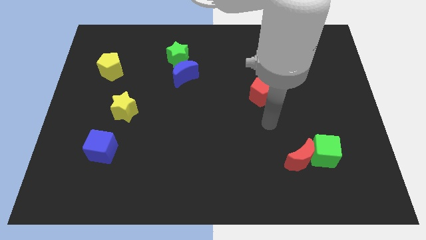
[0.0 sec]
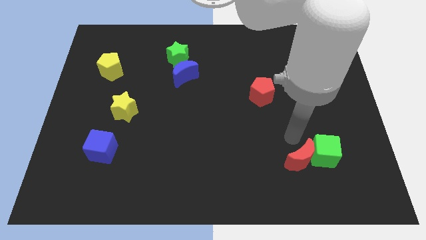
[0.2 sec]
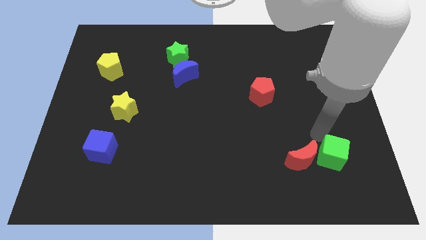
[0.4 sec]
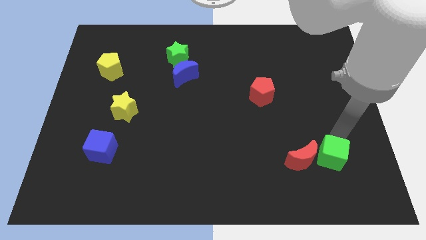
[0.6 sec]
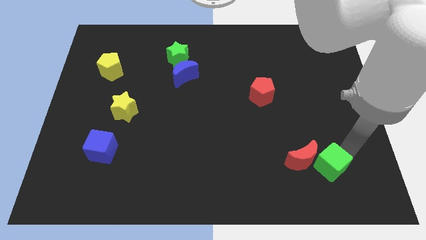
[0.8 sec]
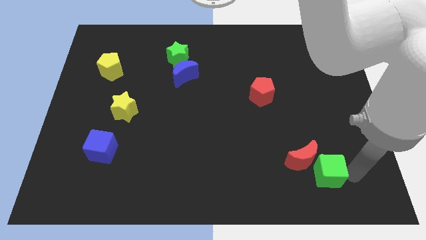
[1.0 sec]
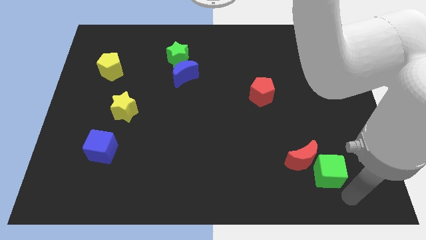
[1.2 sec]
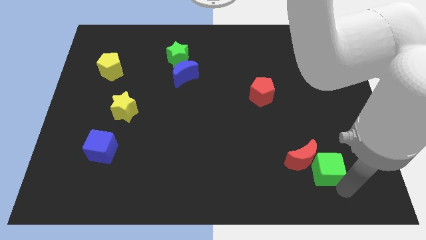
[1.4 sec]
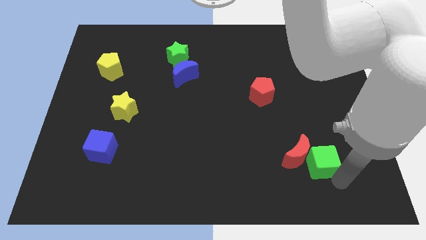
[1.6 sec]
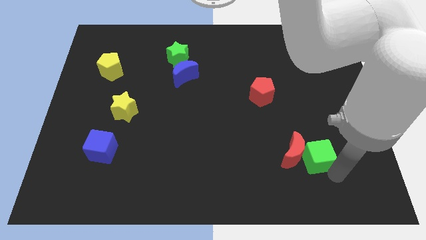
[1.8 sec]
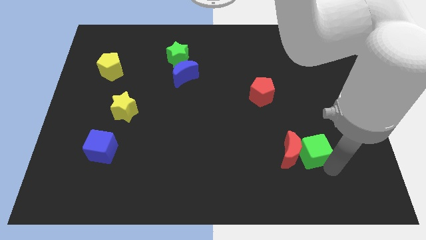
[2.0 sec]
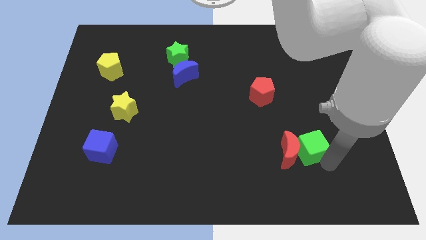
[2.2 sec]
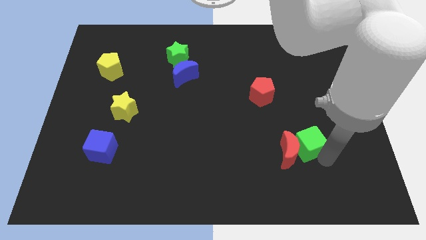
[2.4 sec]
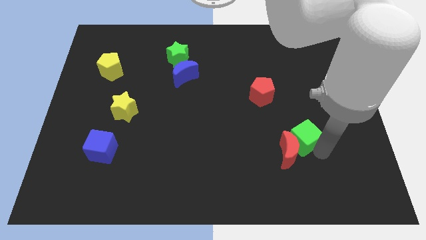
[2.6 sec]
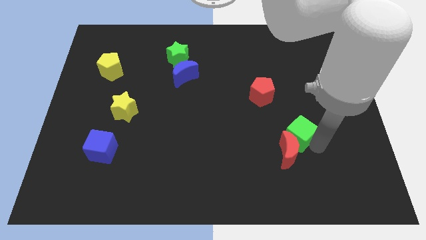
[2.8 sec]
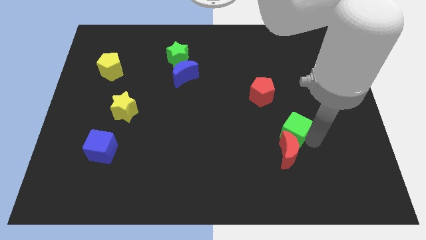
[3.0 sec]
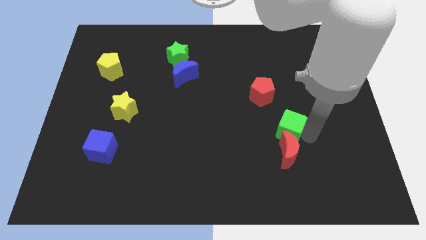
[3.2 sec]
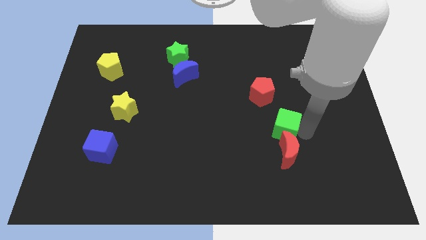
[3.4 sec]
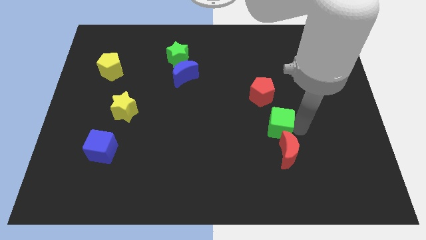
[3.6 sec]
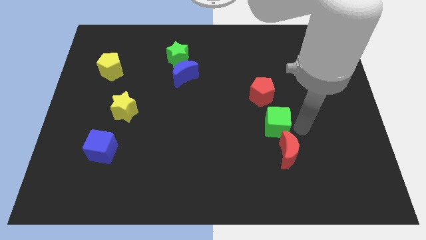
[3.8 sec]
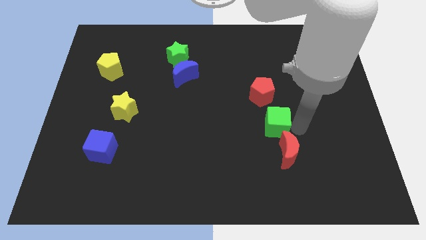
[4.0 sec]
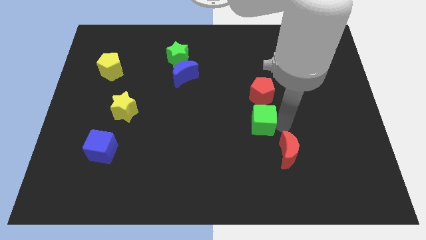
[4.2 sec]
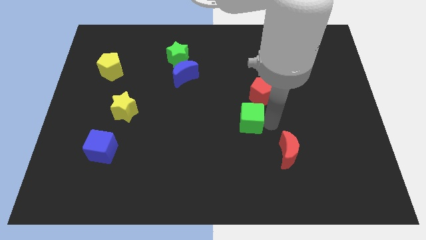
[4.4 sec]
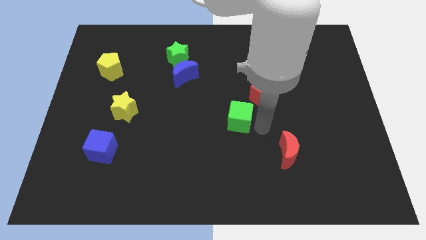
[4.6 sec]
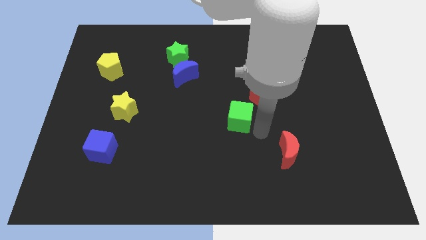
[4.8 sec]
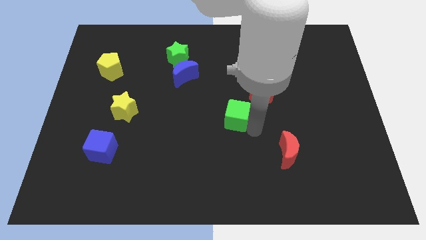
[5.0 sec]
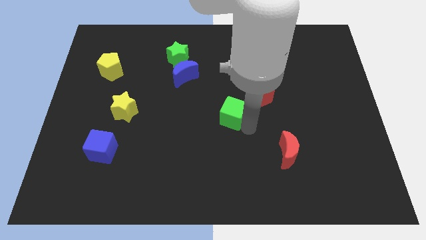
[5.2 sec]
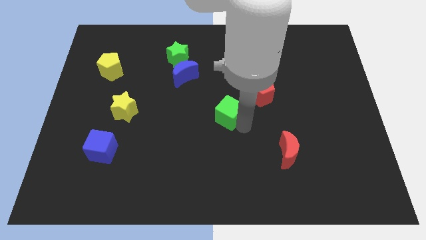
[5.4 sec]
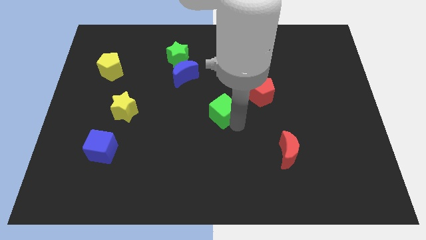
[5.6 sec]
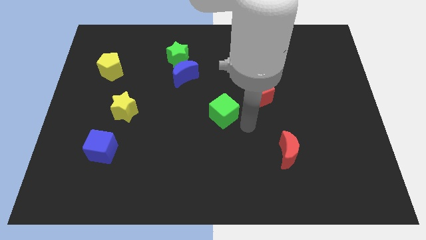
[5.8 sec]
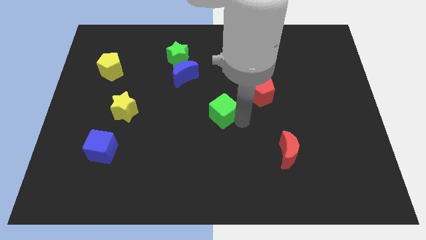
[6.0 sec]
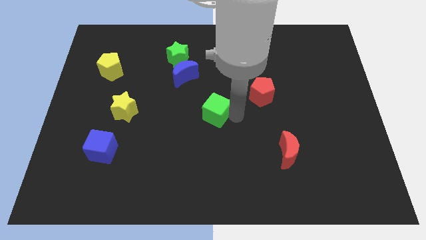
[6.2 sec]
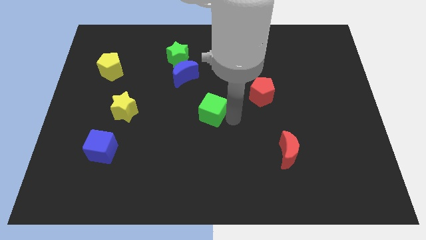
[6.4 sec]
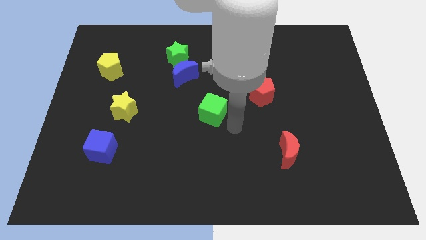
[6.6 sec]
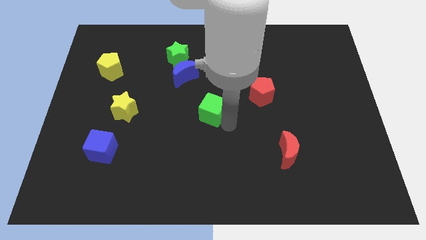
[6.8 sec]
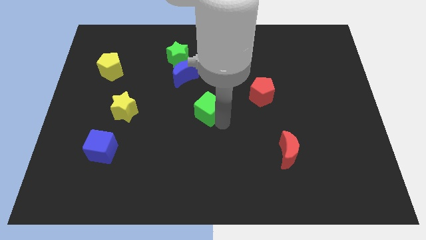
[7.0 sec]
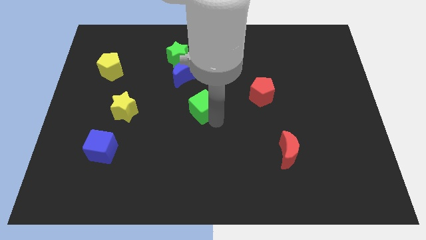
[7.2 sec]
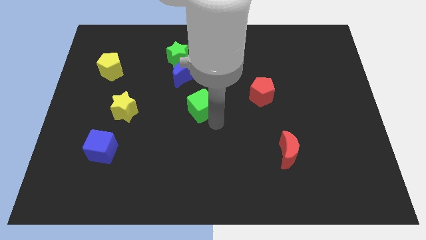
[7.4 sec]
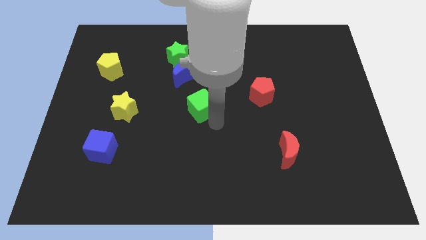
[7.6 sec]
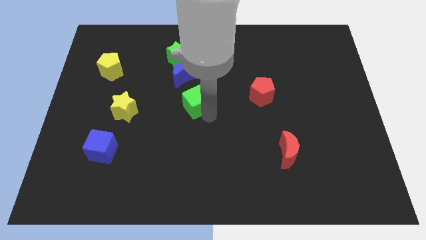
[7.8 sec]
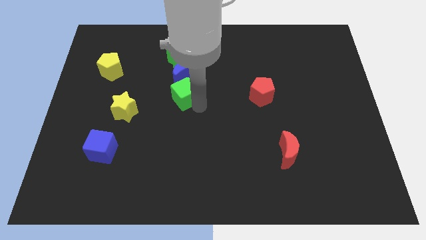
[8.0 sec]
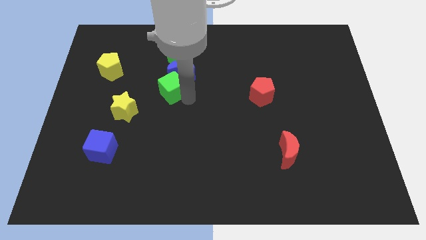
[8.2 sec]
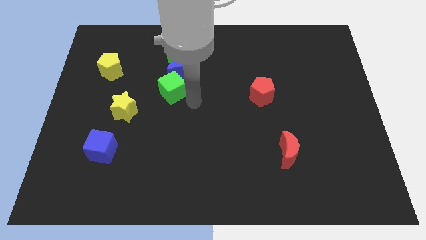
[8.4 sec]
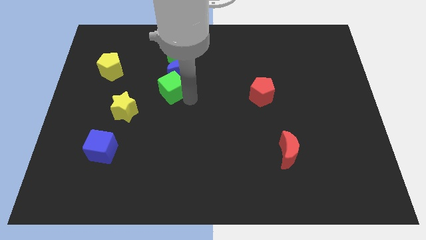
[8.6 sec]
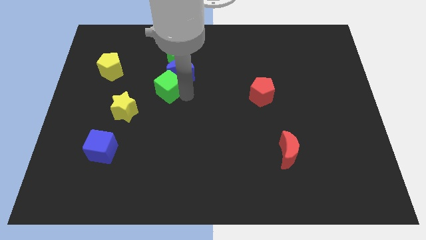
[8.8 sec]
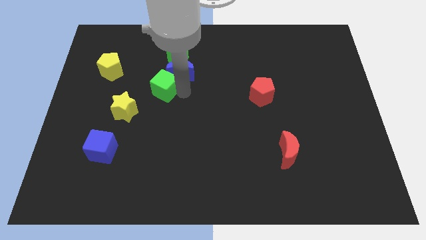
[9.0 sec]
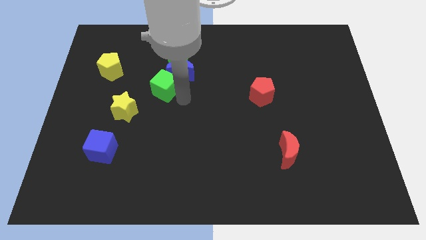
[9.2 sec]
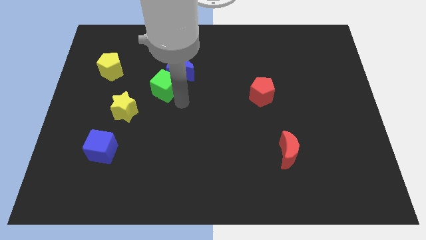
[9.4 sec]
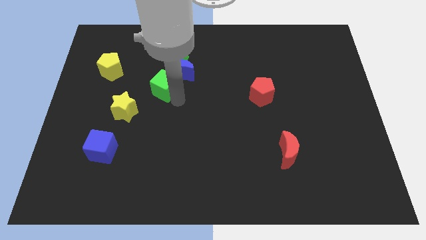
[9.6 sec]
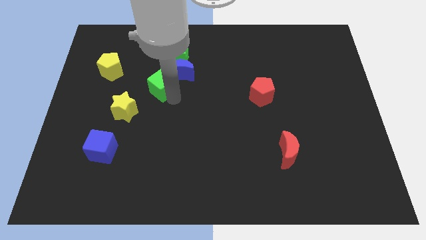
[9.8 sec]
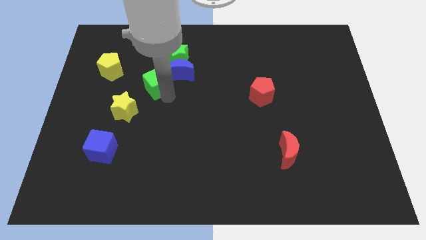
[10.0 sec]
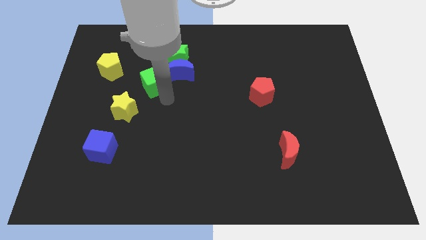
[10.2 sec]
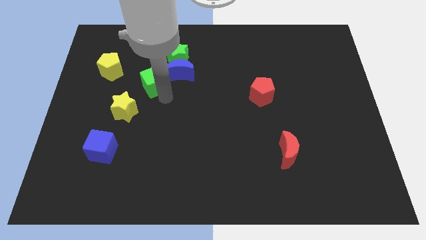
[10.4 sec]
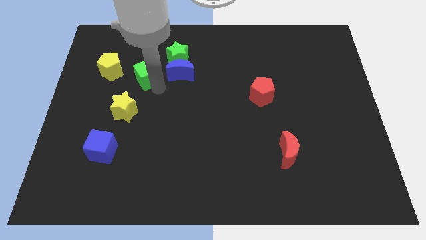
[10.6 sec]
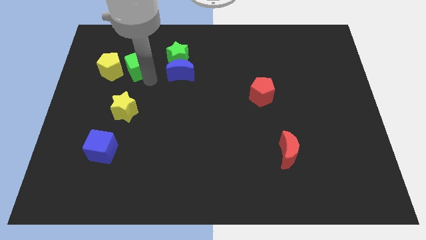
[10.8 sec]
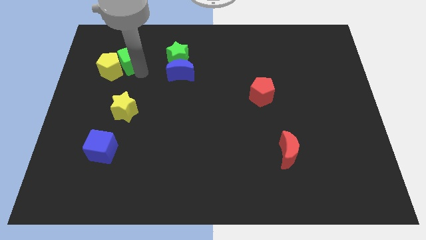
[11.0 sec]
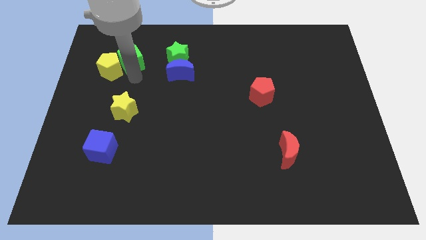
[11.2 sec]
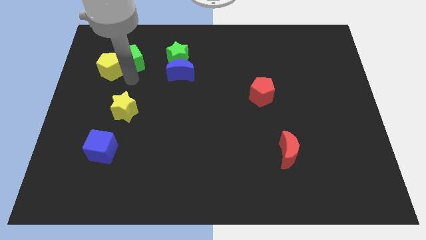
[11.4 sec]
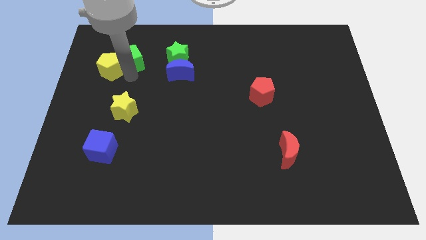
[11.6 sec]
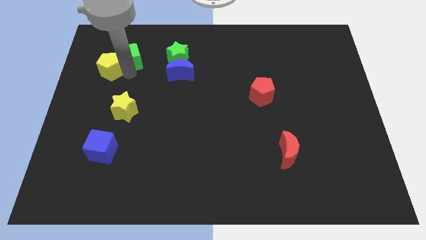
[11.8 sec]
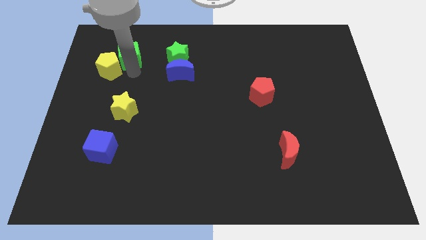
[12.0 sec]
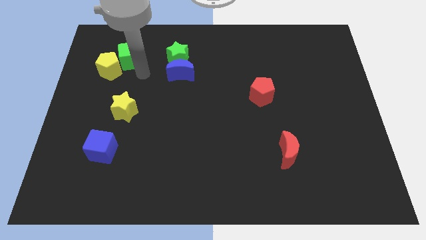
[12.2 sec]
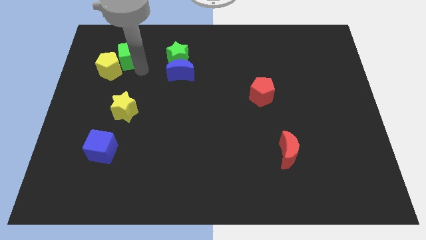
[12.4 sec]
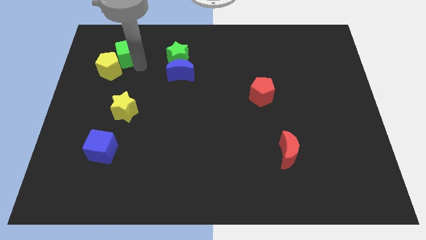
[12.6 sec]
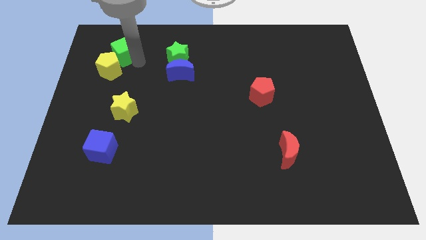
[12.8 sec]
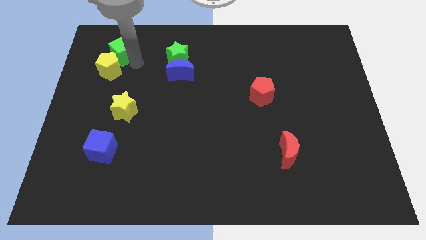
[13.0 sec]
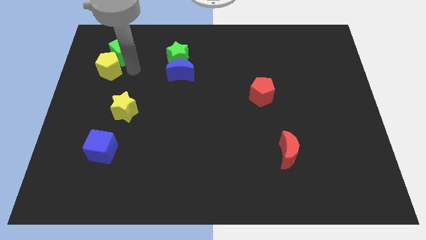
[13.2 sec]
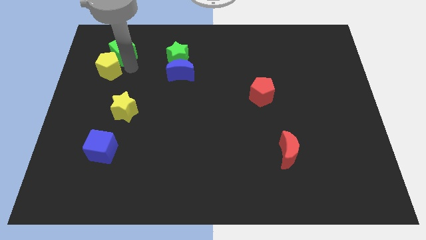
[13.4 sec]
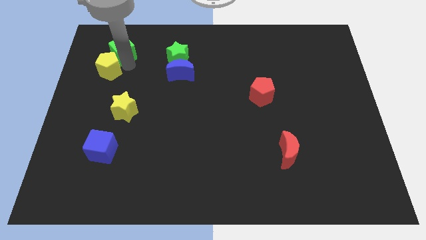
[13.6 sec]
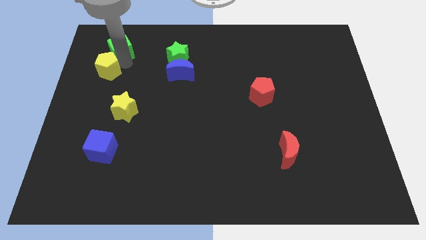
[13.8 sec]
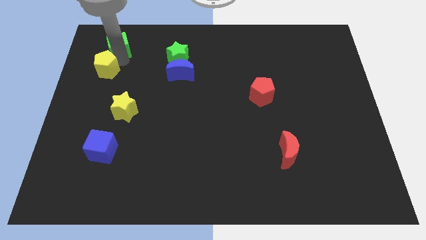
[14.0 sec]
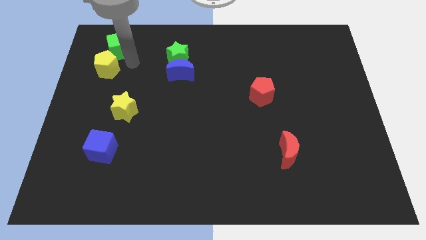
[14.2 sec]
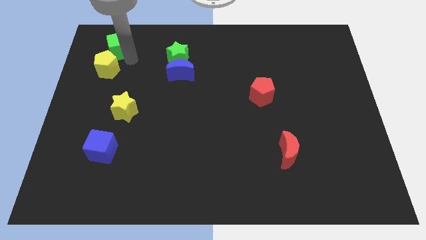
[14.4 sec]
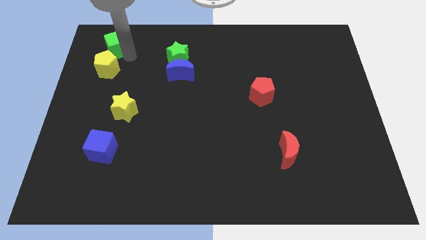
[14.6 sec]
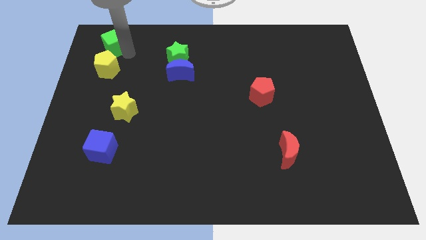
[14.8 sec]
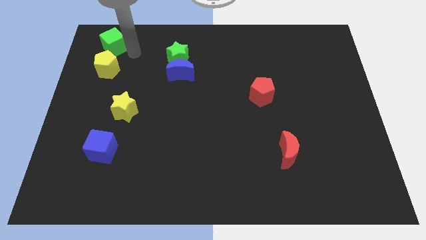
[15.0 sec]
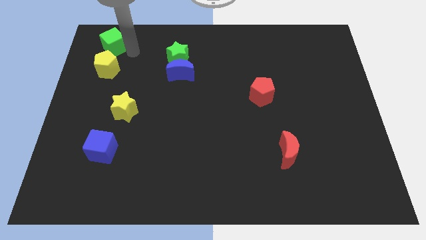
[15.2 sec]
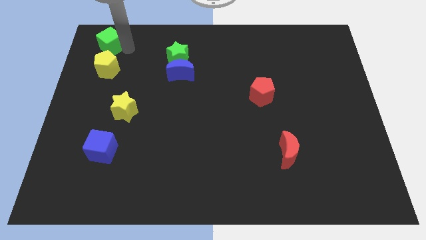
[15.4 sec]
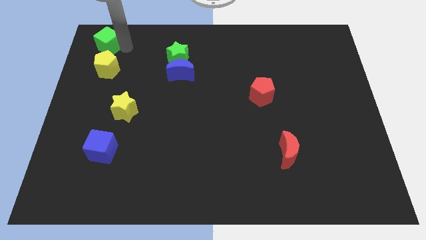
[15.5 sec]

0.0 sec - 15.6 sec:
slide the green cube to the top left of the board
